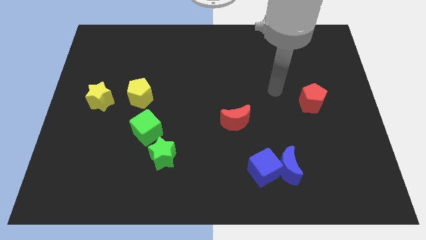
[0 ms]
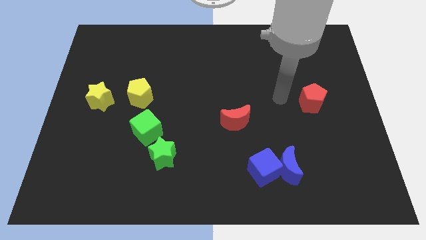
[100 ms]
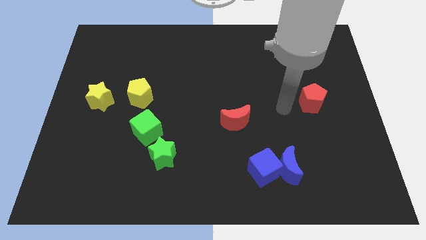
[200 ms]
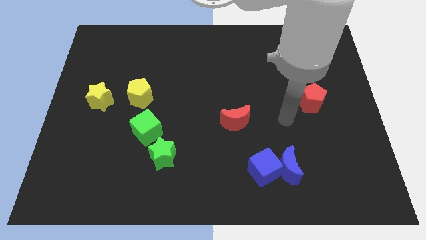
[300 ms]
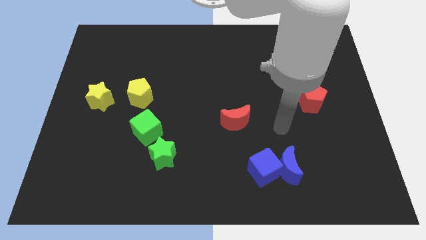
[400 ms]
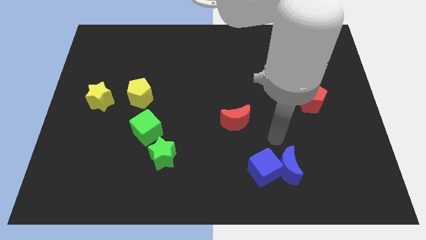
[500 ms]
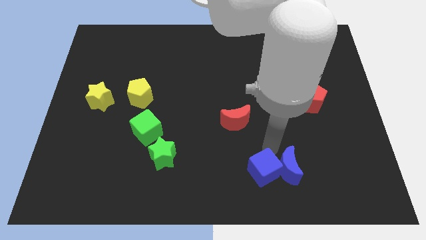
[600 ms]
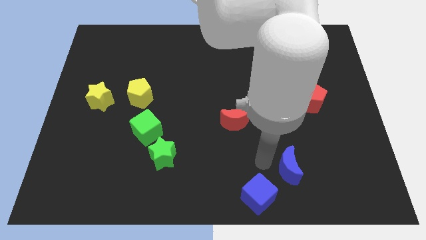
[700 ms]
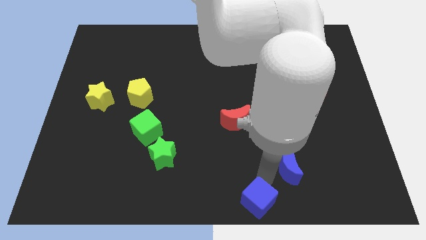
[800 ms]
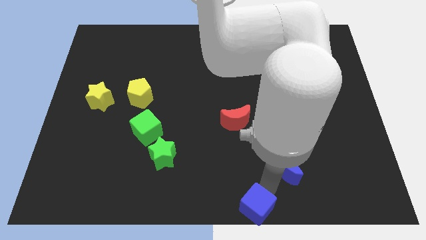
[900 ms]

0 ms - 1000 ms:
separate the blue moon from the blue cube

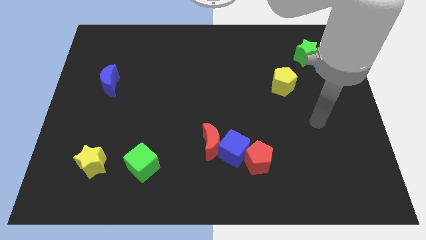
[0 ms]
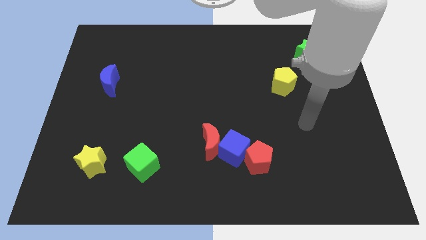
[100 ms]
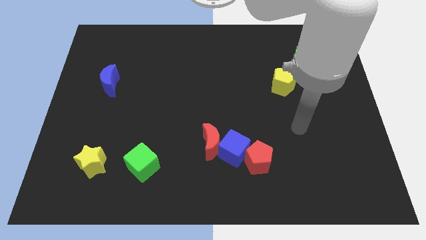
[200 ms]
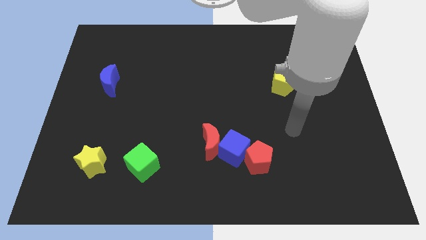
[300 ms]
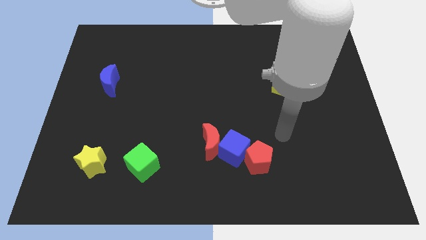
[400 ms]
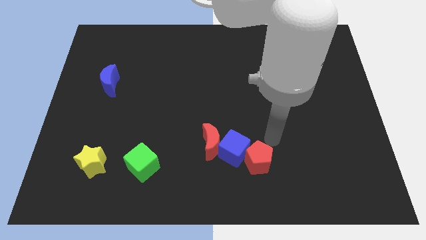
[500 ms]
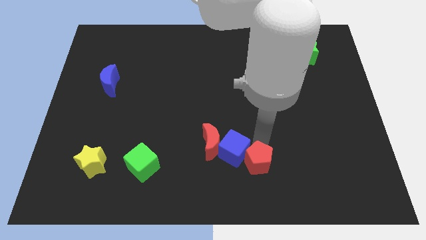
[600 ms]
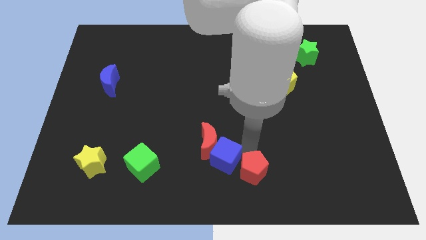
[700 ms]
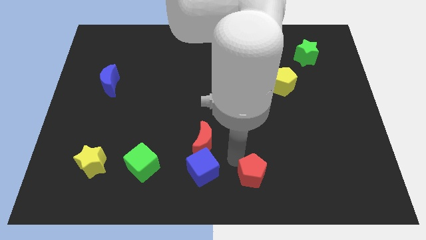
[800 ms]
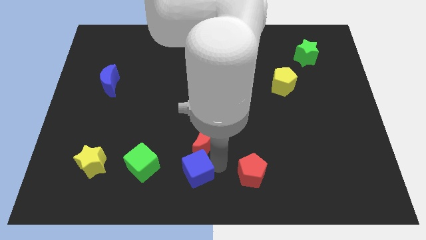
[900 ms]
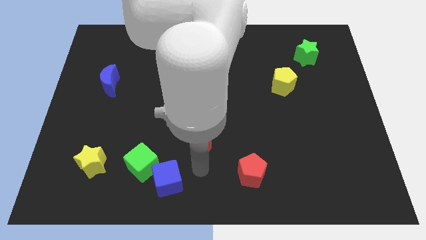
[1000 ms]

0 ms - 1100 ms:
move the red moon away from the blue cube

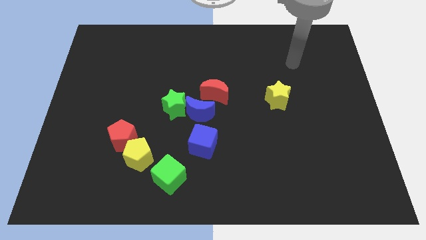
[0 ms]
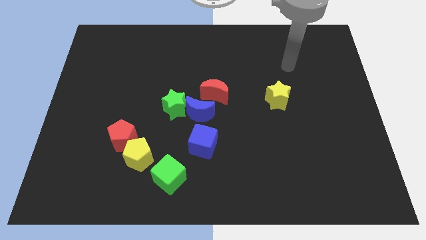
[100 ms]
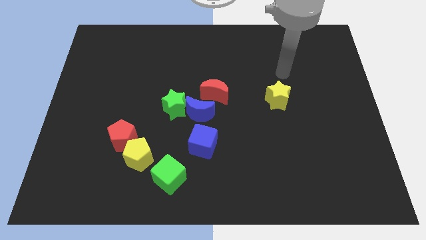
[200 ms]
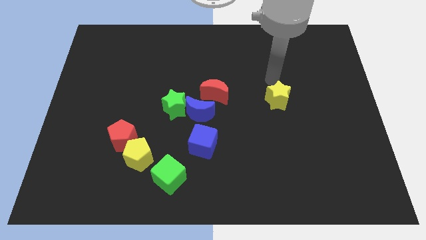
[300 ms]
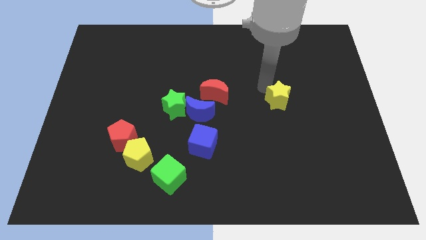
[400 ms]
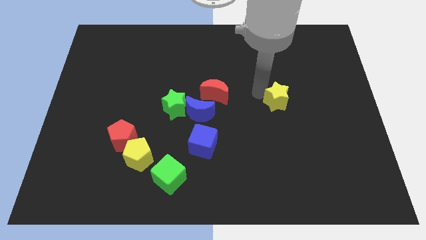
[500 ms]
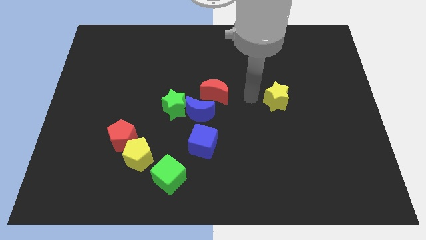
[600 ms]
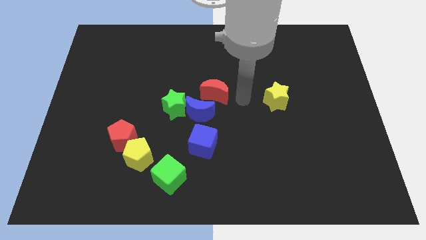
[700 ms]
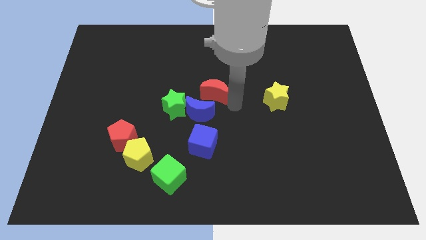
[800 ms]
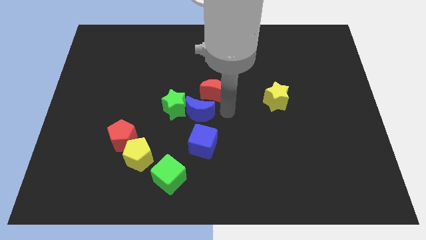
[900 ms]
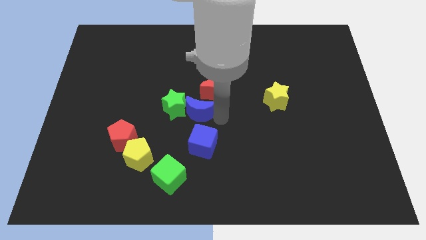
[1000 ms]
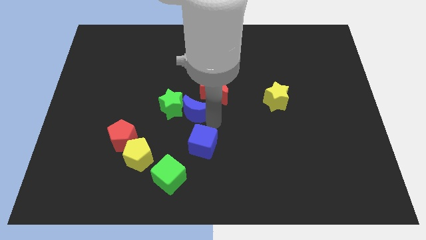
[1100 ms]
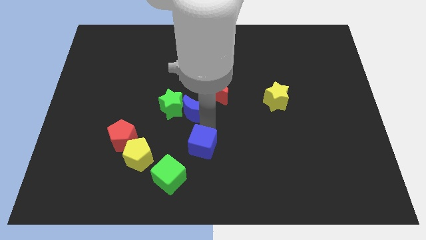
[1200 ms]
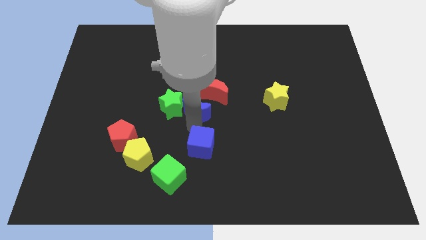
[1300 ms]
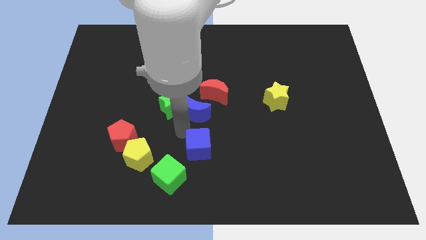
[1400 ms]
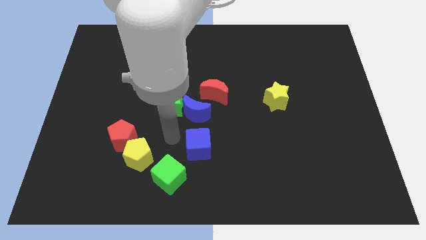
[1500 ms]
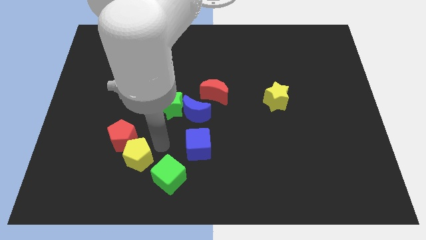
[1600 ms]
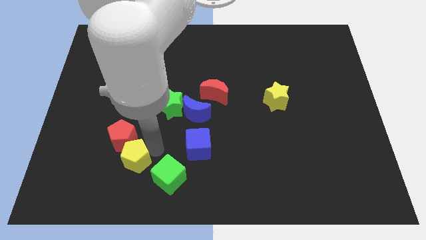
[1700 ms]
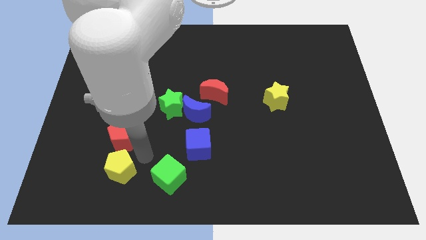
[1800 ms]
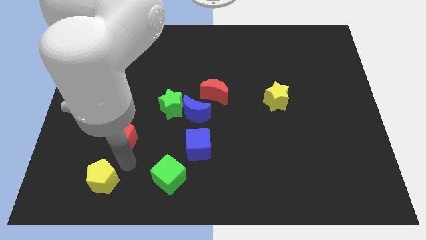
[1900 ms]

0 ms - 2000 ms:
separate the red pentagon from the yellow pentagon

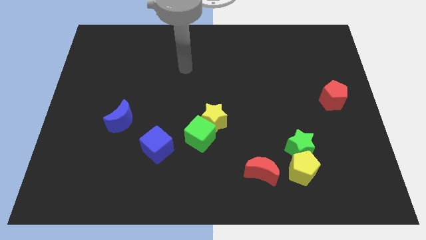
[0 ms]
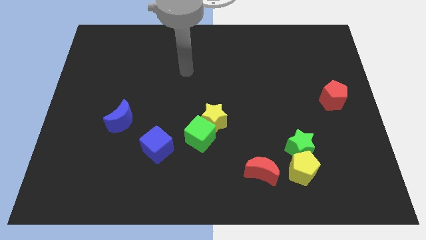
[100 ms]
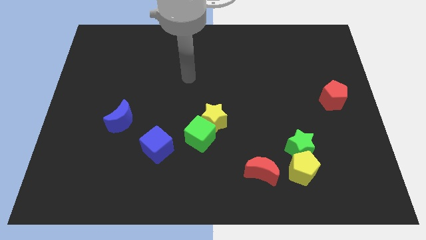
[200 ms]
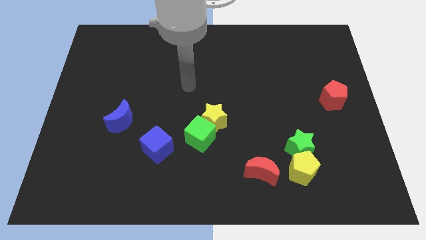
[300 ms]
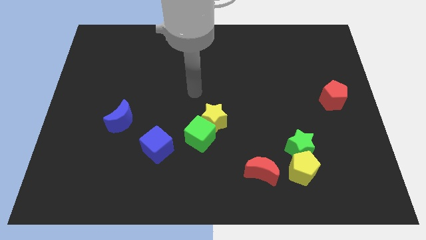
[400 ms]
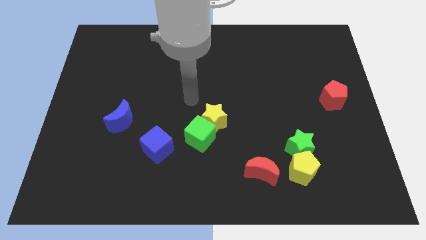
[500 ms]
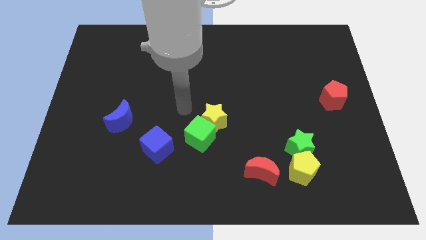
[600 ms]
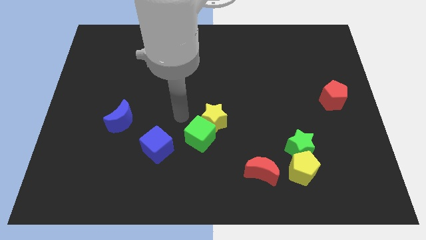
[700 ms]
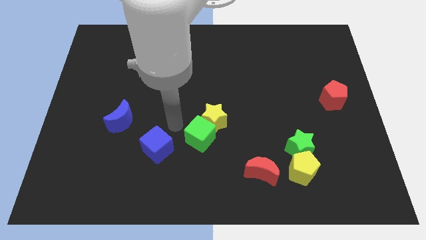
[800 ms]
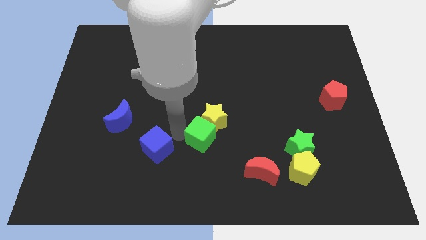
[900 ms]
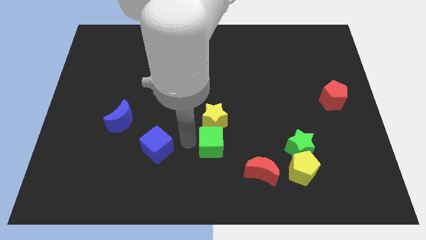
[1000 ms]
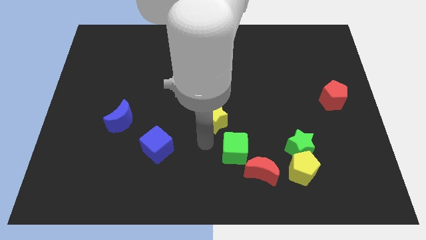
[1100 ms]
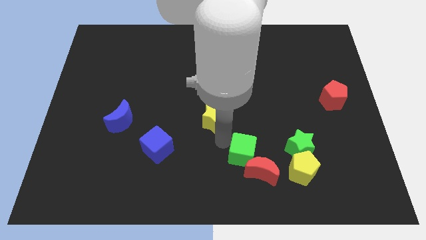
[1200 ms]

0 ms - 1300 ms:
separate the yellow star from the green cube
